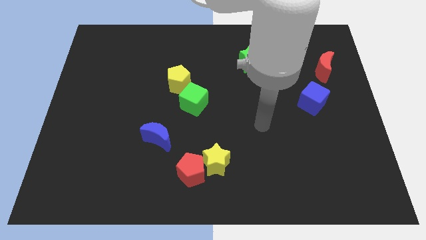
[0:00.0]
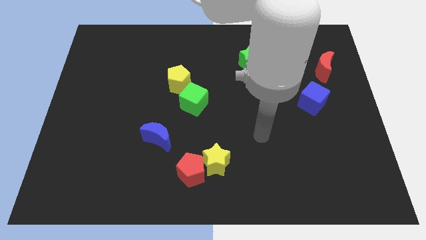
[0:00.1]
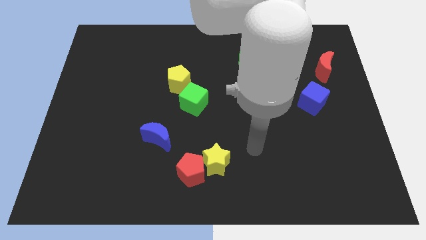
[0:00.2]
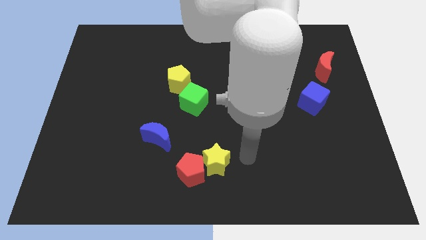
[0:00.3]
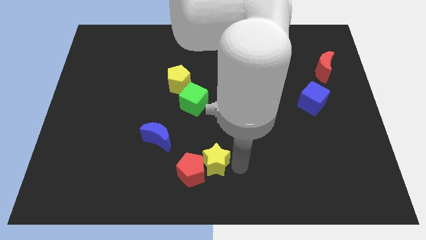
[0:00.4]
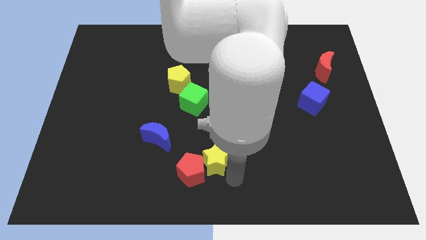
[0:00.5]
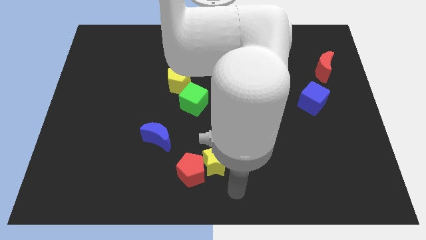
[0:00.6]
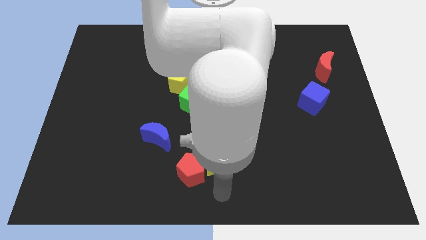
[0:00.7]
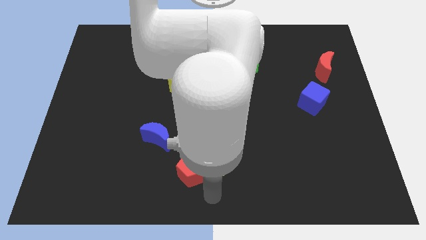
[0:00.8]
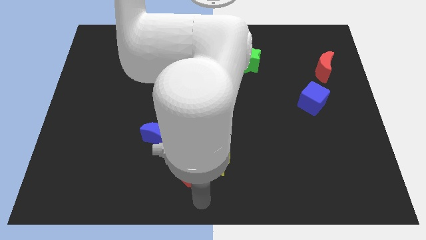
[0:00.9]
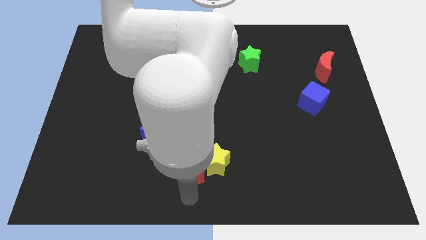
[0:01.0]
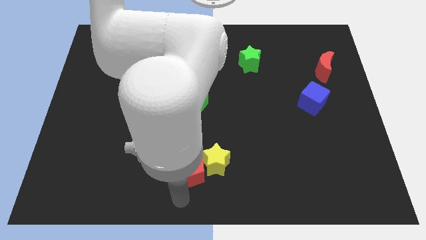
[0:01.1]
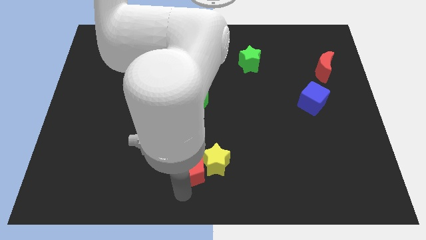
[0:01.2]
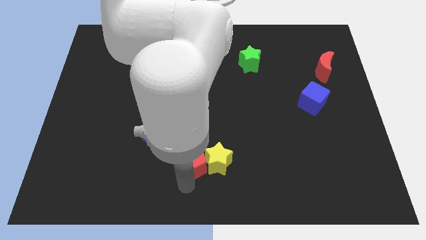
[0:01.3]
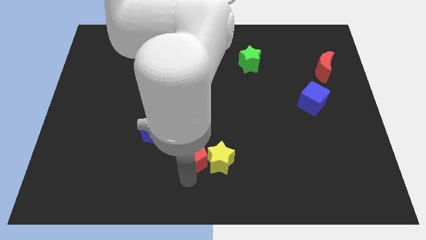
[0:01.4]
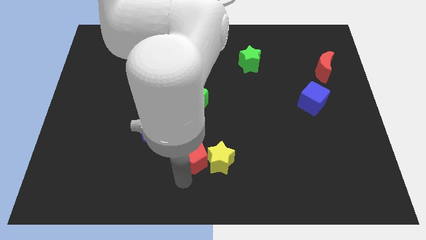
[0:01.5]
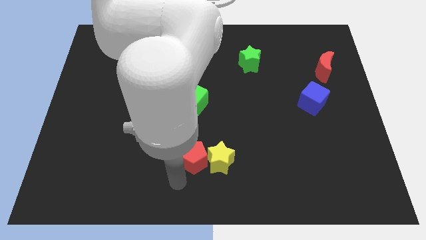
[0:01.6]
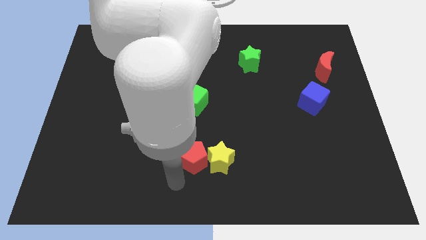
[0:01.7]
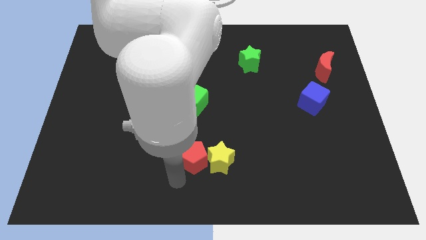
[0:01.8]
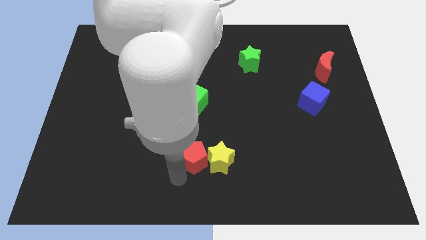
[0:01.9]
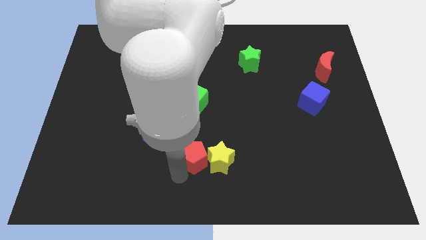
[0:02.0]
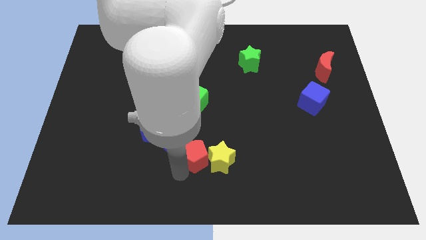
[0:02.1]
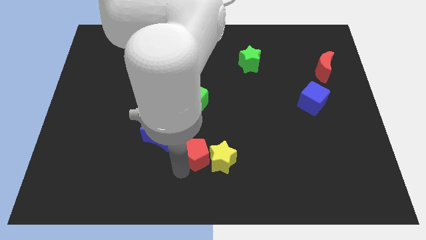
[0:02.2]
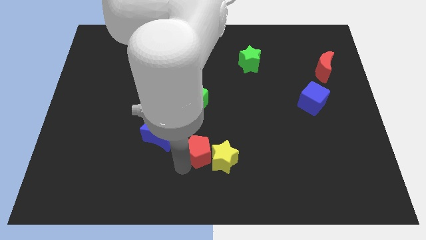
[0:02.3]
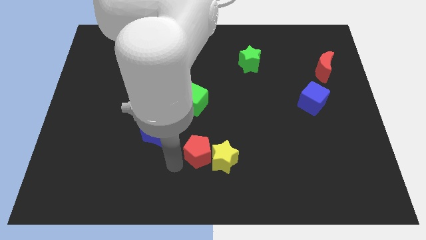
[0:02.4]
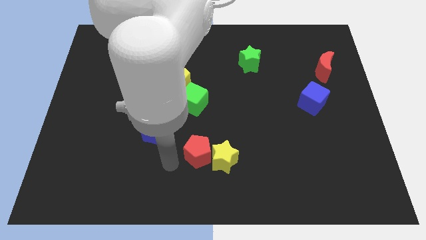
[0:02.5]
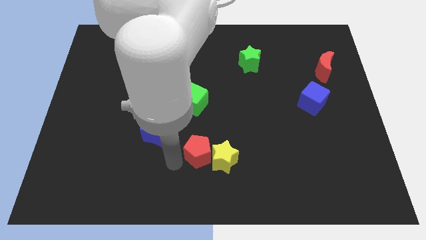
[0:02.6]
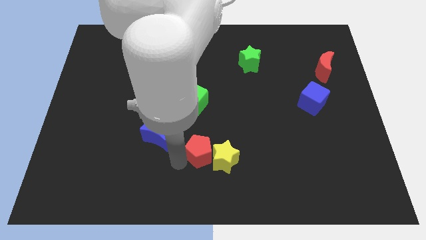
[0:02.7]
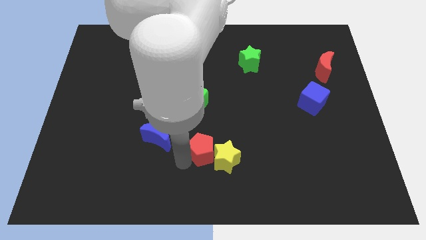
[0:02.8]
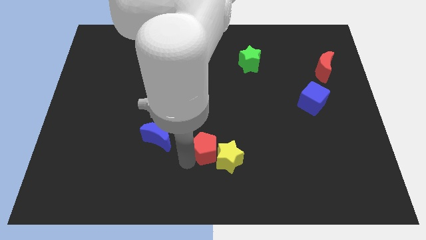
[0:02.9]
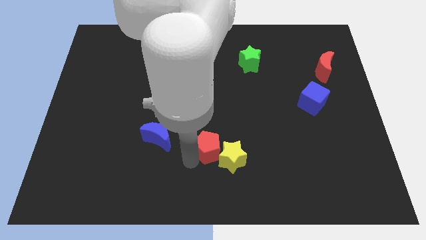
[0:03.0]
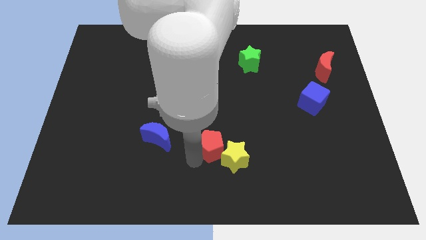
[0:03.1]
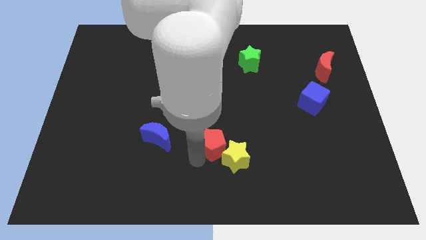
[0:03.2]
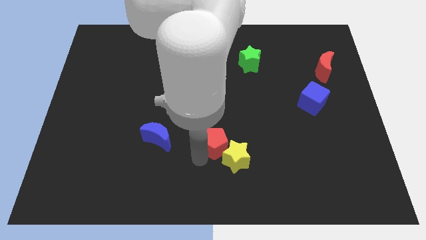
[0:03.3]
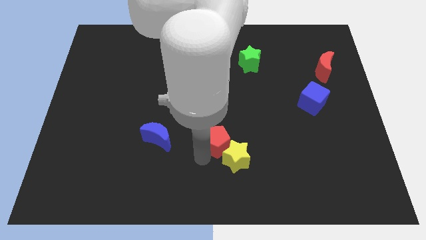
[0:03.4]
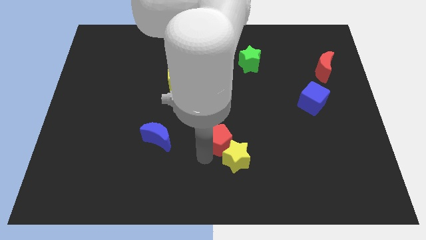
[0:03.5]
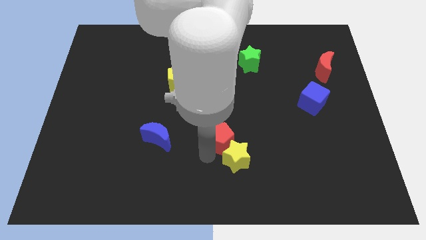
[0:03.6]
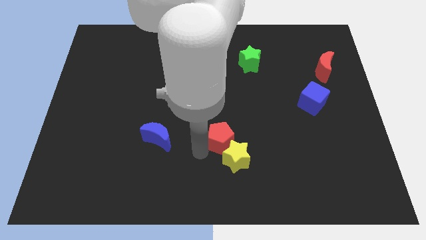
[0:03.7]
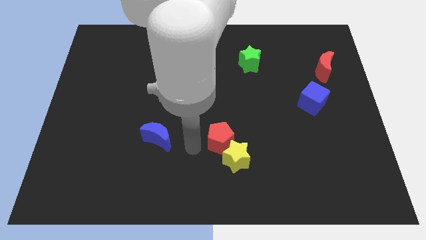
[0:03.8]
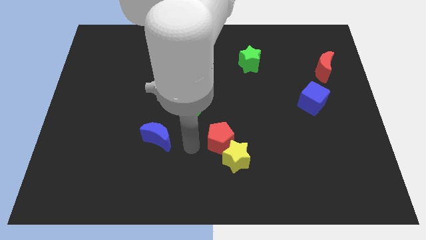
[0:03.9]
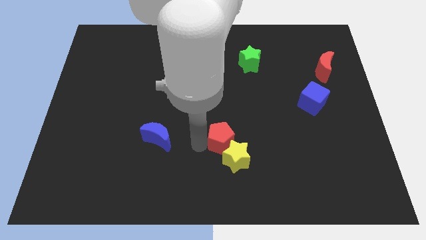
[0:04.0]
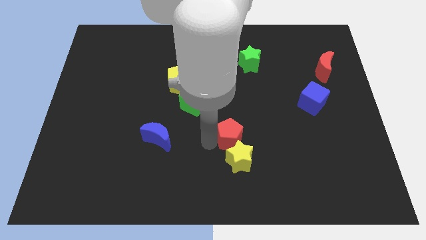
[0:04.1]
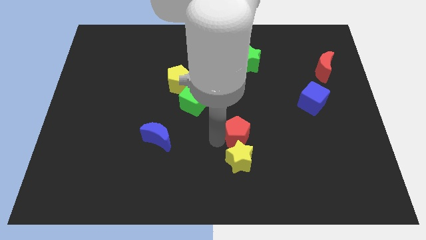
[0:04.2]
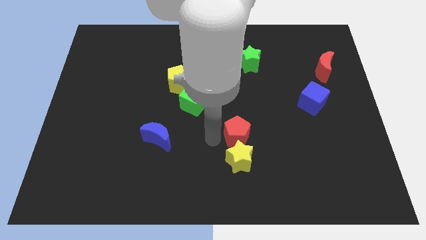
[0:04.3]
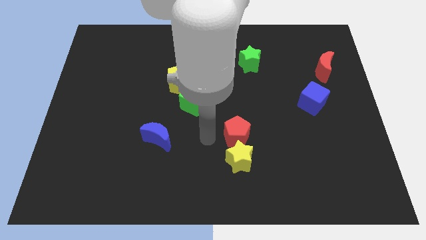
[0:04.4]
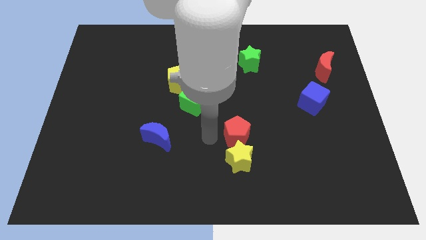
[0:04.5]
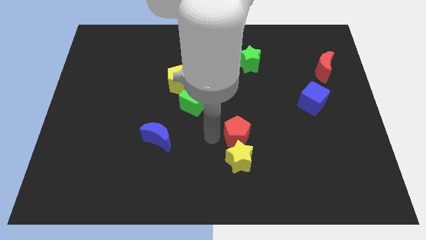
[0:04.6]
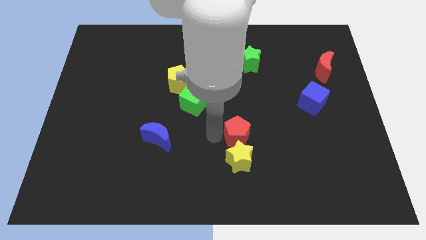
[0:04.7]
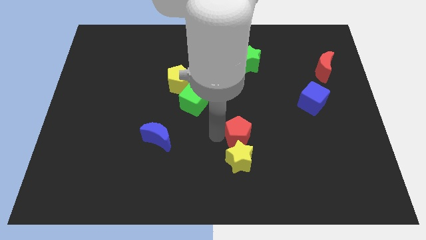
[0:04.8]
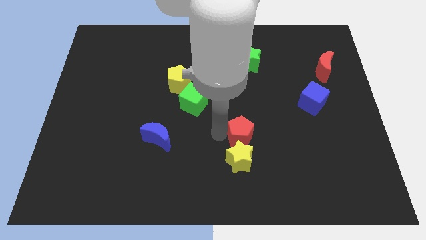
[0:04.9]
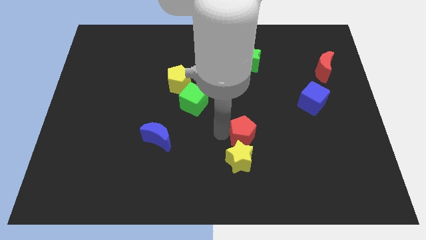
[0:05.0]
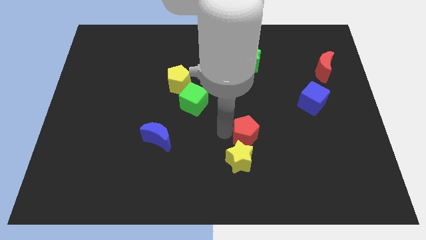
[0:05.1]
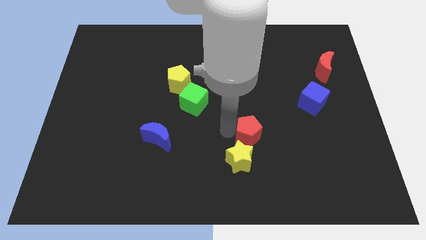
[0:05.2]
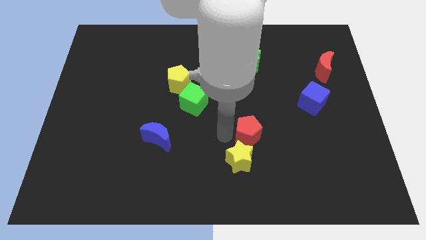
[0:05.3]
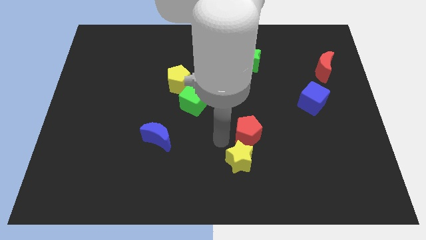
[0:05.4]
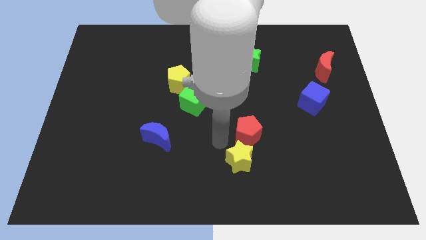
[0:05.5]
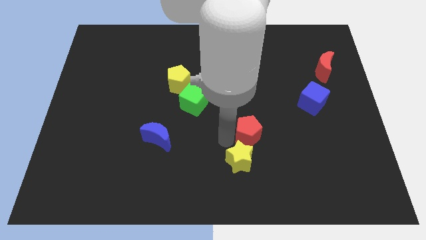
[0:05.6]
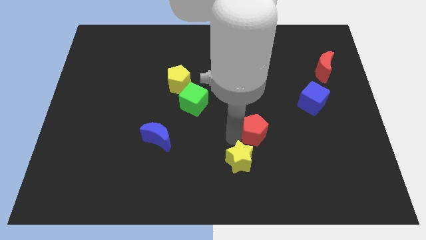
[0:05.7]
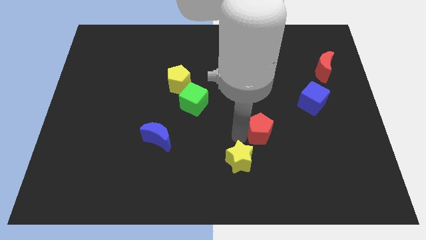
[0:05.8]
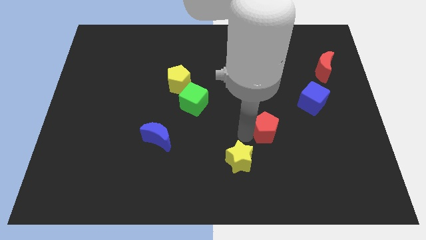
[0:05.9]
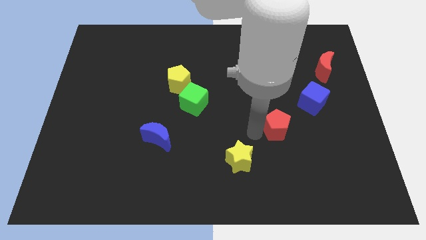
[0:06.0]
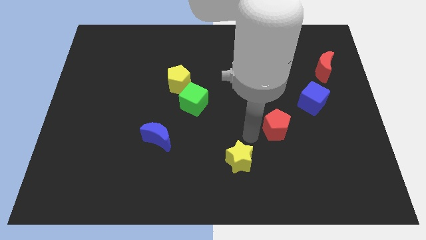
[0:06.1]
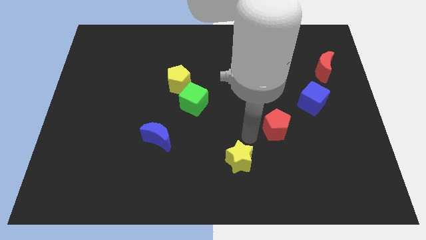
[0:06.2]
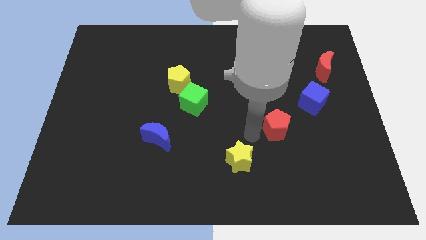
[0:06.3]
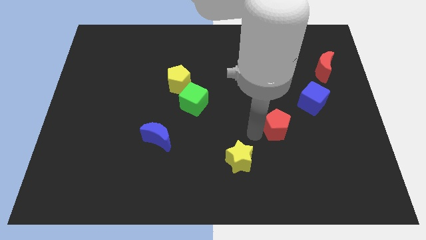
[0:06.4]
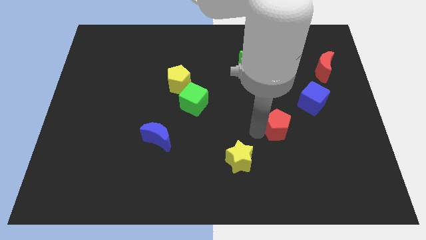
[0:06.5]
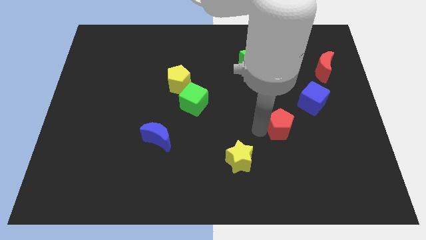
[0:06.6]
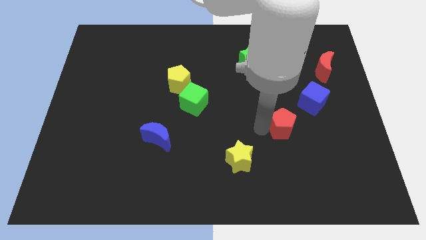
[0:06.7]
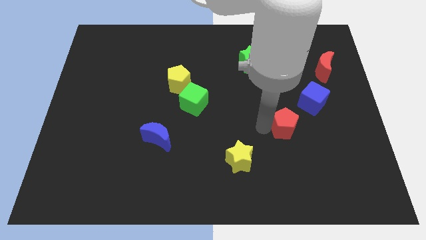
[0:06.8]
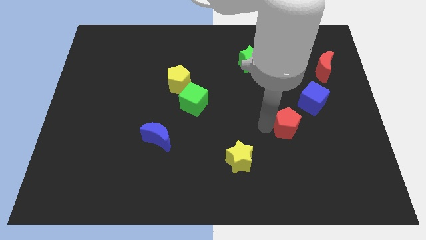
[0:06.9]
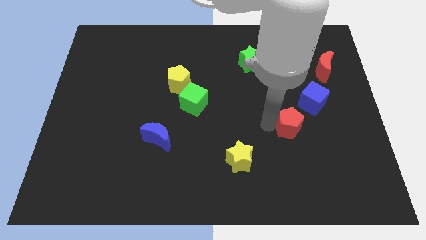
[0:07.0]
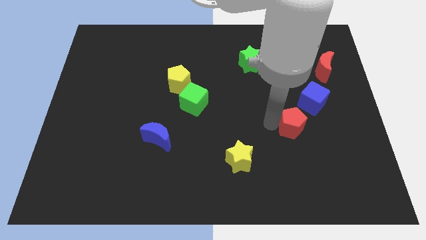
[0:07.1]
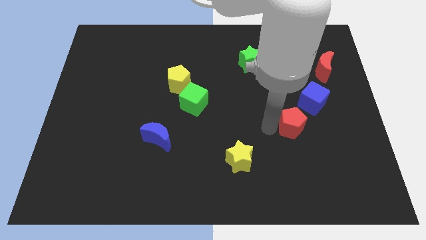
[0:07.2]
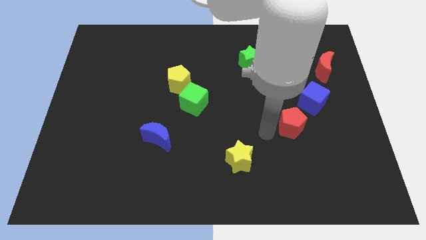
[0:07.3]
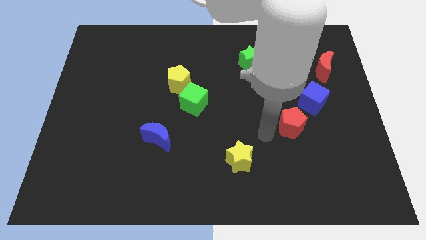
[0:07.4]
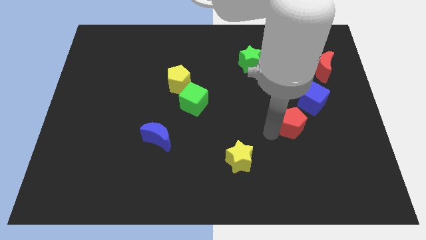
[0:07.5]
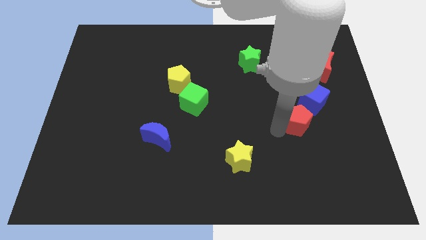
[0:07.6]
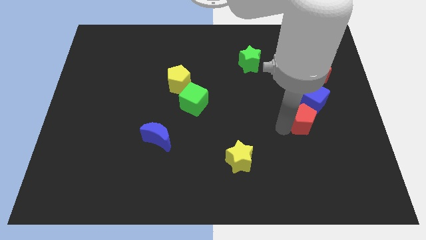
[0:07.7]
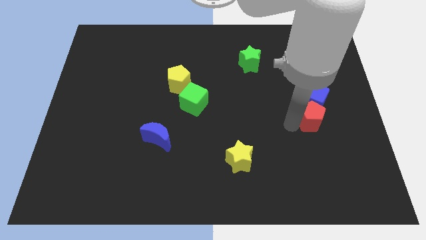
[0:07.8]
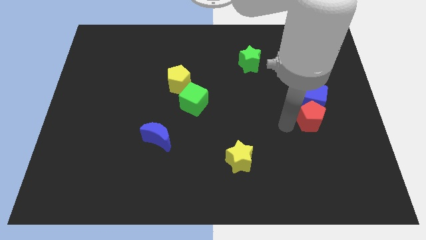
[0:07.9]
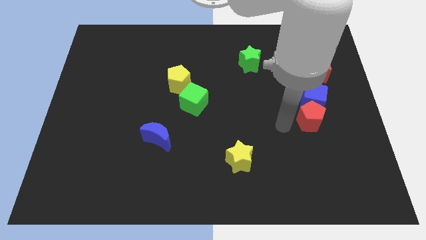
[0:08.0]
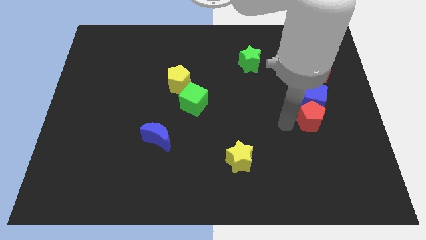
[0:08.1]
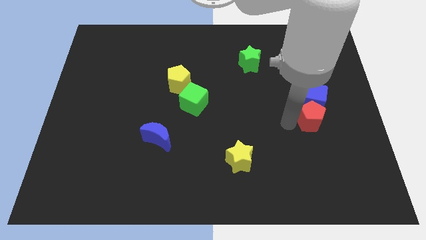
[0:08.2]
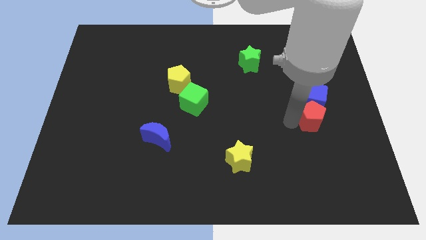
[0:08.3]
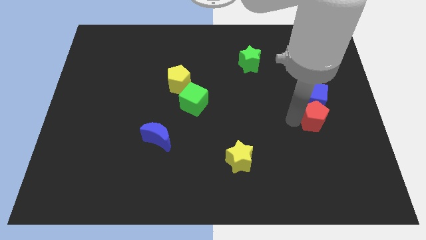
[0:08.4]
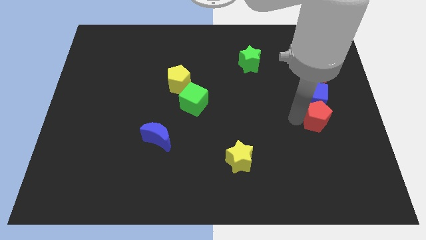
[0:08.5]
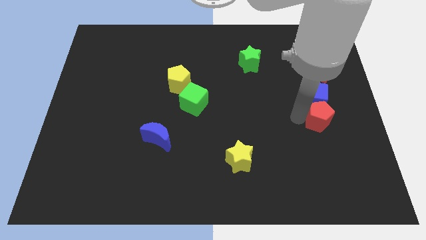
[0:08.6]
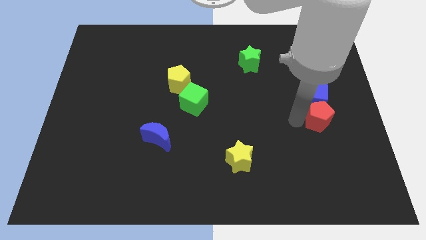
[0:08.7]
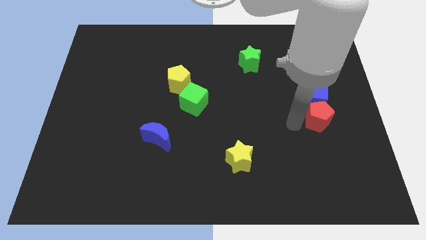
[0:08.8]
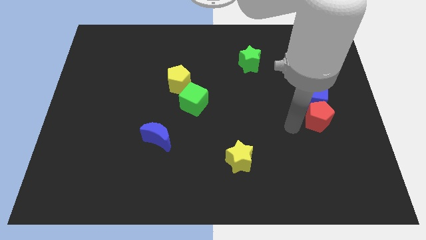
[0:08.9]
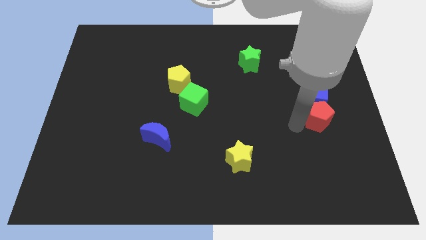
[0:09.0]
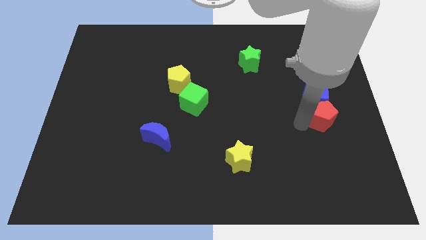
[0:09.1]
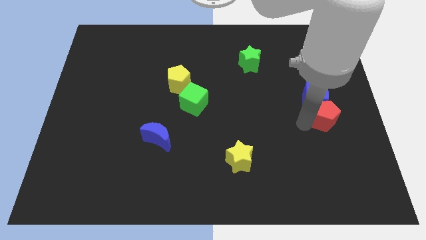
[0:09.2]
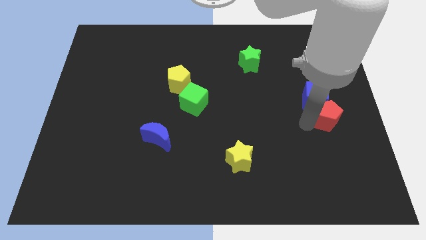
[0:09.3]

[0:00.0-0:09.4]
put the red pentagon to the center right
